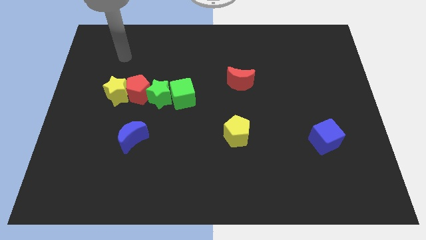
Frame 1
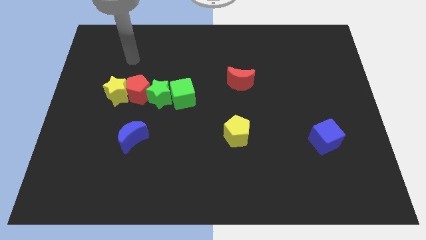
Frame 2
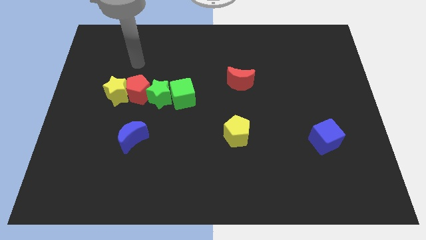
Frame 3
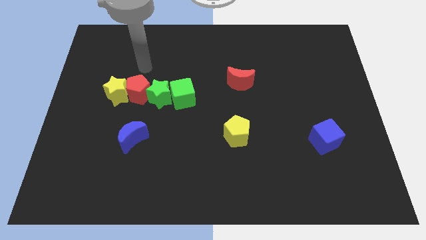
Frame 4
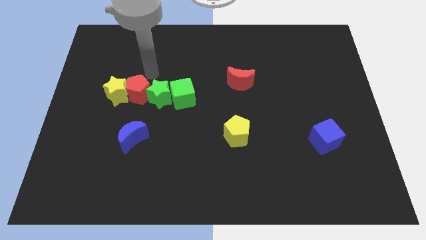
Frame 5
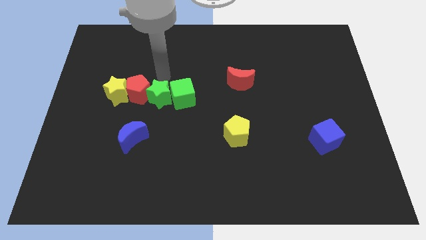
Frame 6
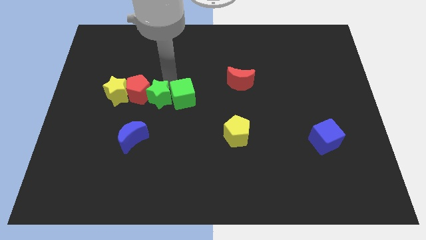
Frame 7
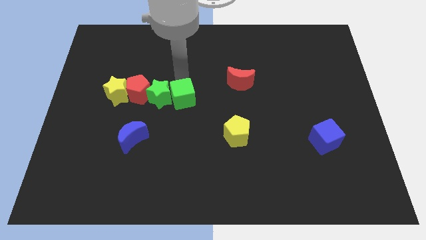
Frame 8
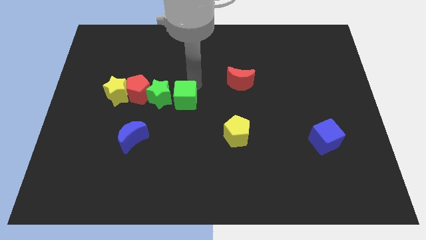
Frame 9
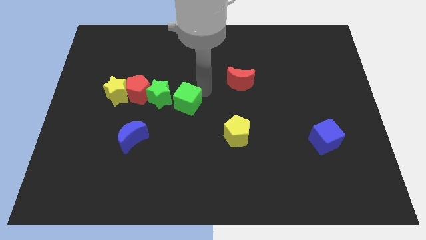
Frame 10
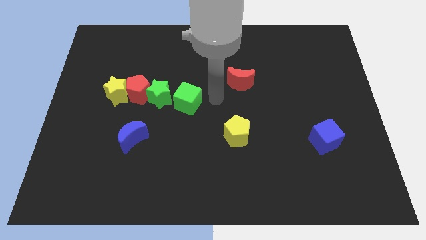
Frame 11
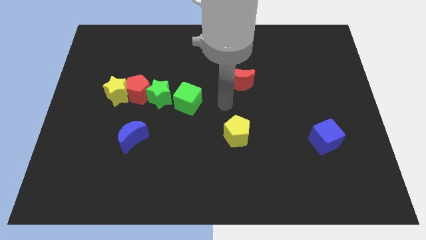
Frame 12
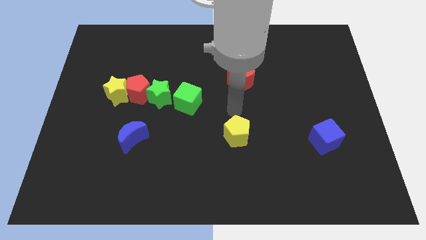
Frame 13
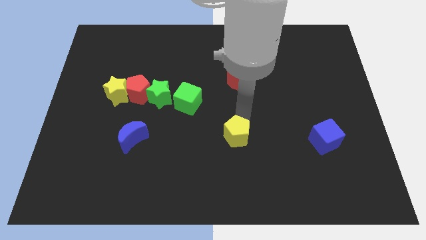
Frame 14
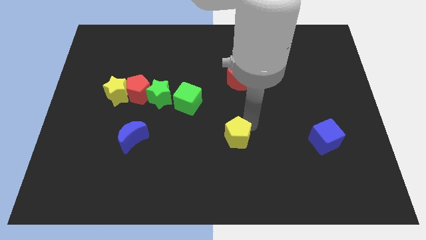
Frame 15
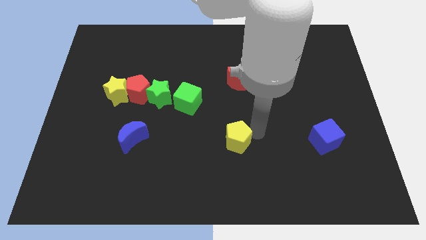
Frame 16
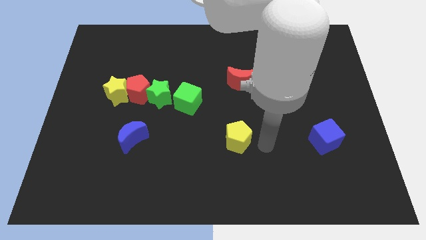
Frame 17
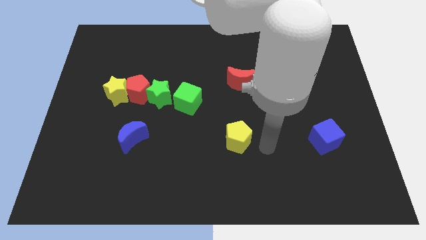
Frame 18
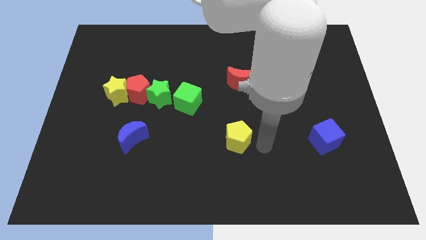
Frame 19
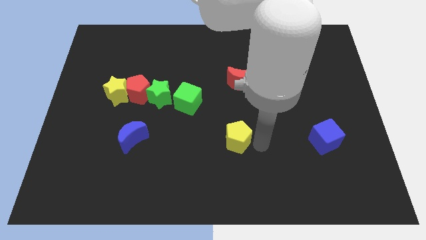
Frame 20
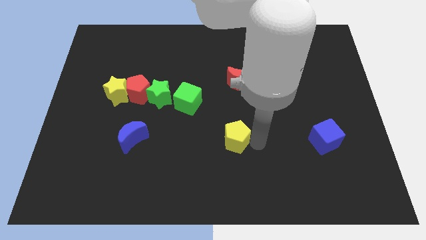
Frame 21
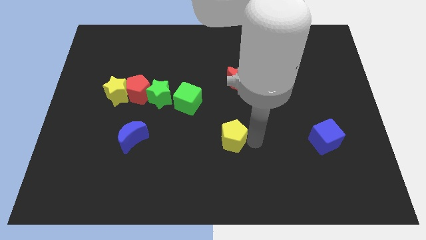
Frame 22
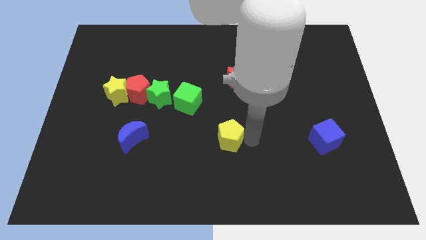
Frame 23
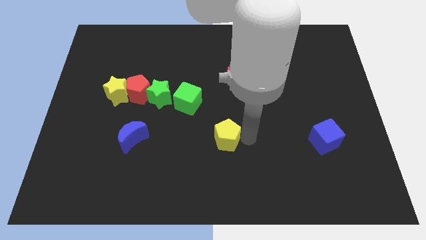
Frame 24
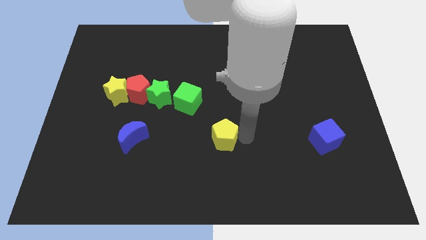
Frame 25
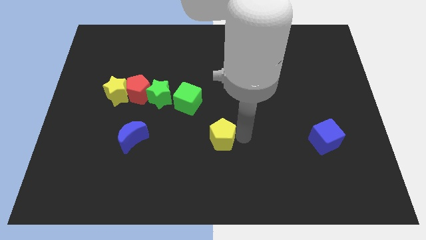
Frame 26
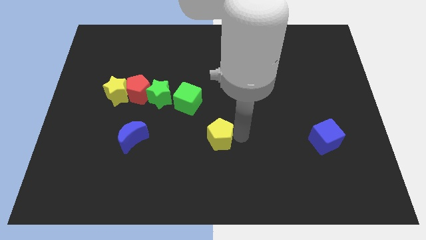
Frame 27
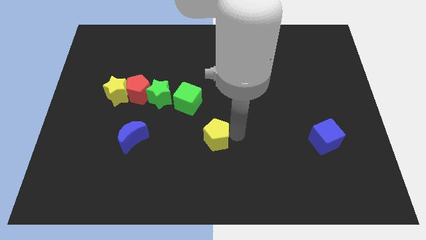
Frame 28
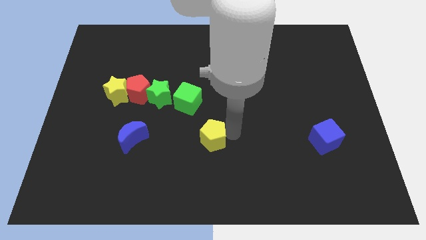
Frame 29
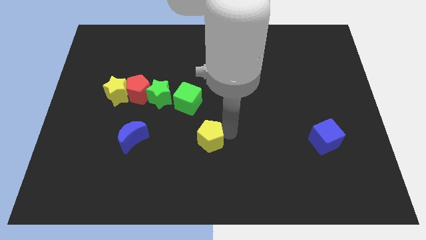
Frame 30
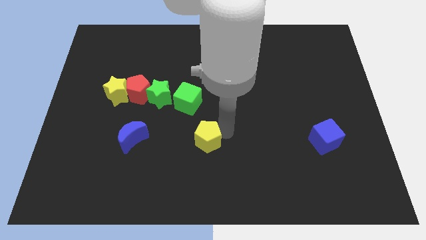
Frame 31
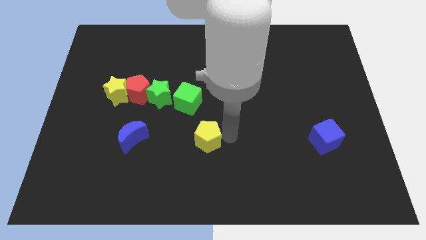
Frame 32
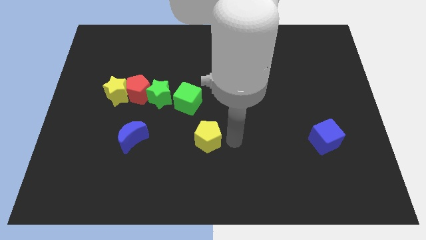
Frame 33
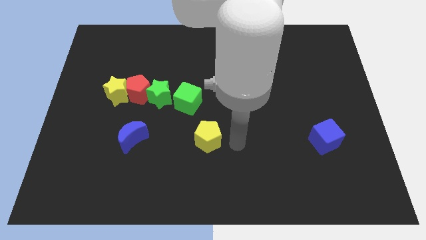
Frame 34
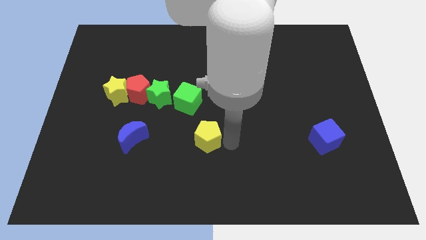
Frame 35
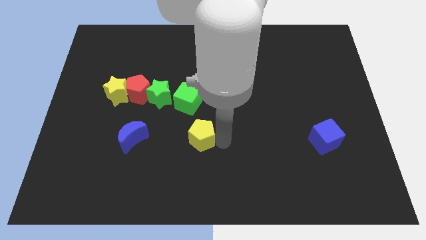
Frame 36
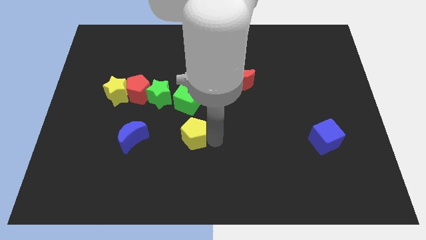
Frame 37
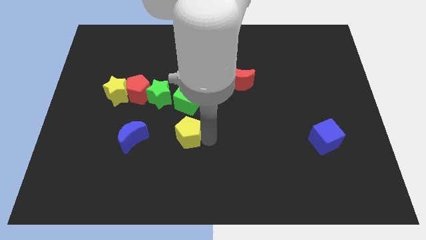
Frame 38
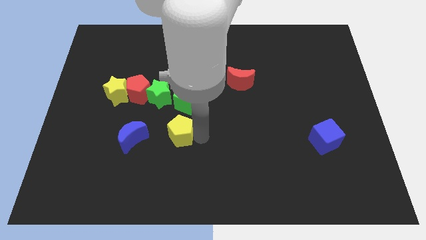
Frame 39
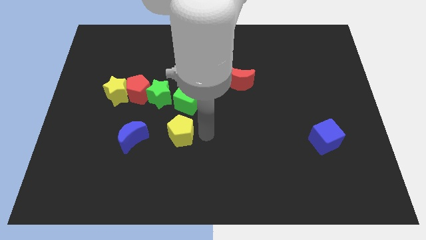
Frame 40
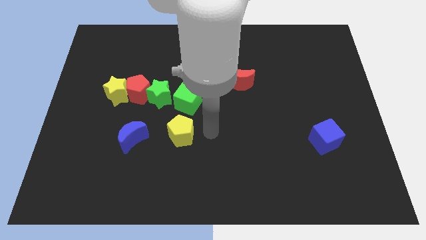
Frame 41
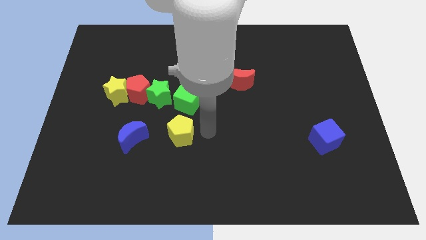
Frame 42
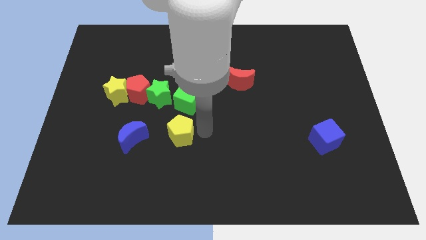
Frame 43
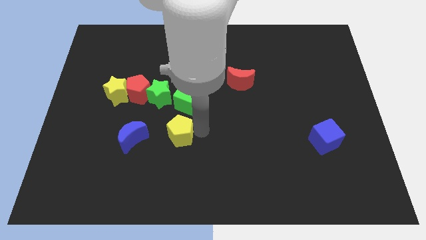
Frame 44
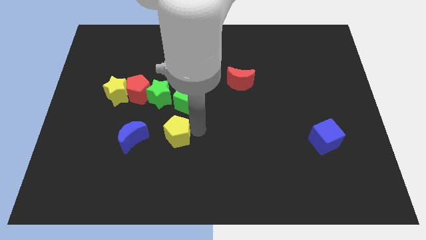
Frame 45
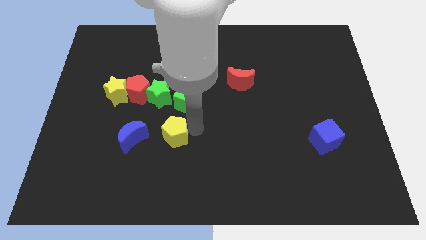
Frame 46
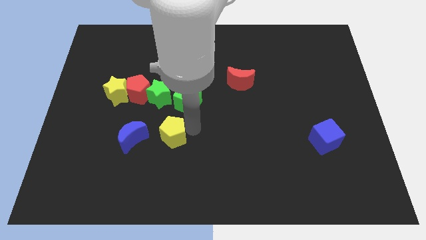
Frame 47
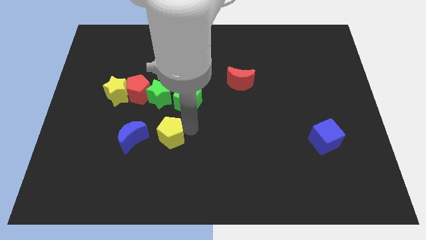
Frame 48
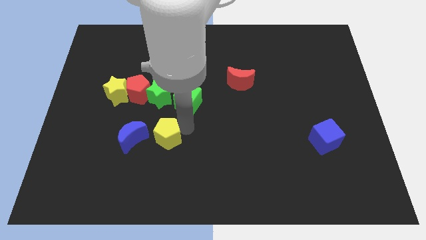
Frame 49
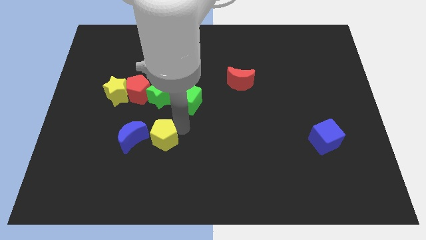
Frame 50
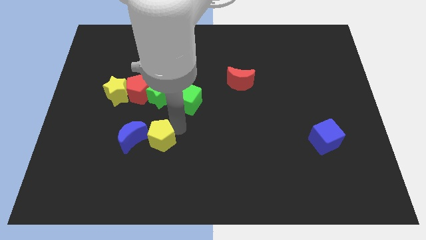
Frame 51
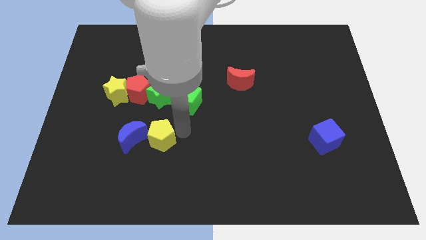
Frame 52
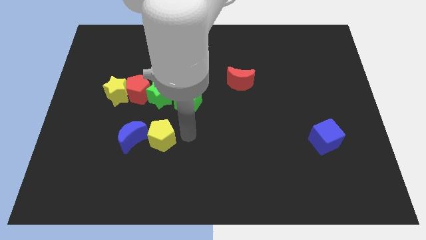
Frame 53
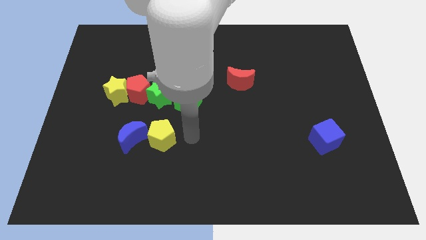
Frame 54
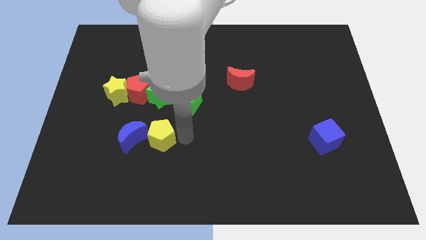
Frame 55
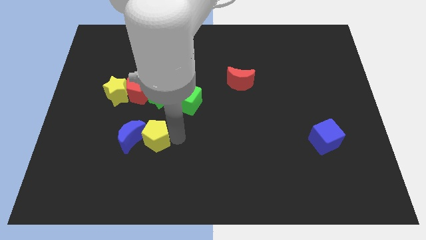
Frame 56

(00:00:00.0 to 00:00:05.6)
slide the yellow pentagon towards the blue moon

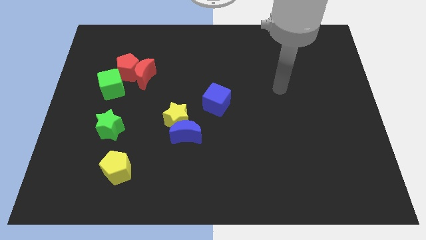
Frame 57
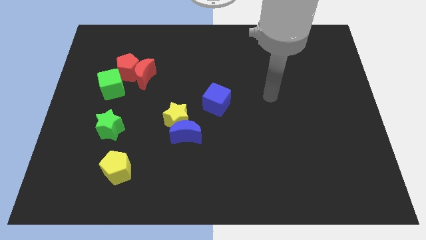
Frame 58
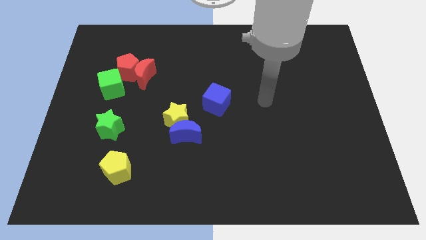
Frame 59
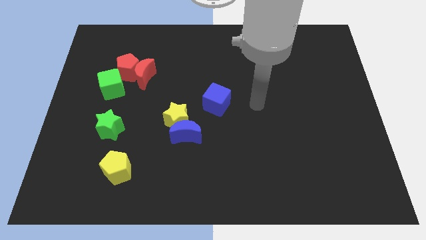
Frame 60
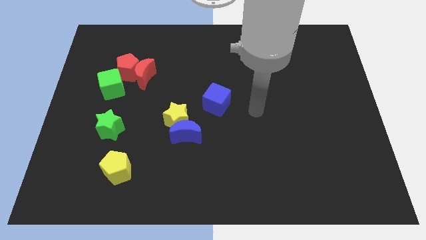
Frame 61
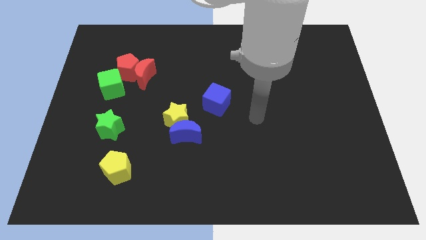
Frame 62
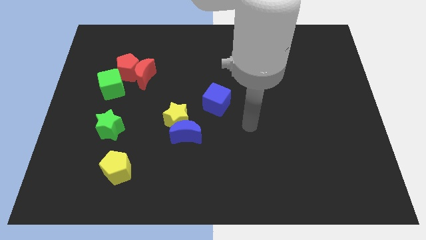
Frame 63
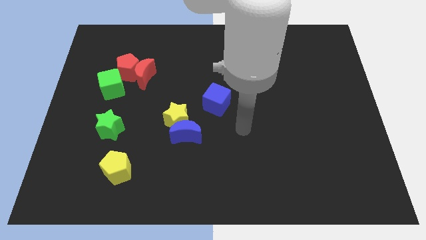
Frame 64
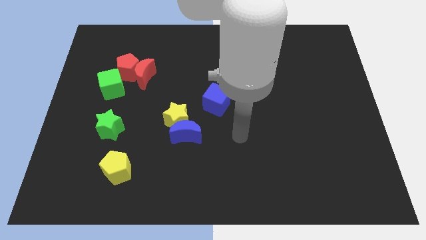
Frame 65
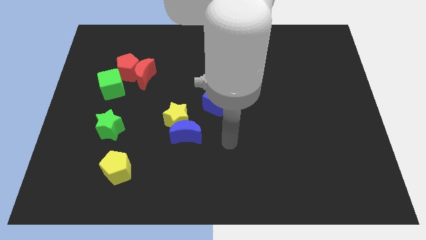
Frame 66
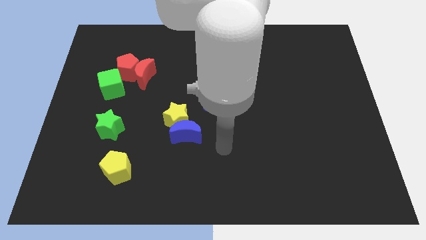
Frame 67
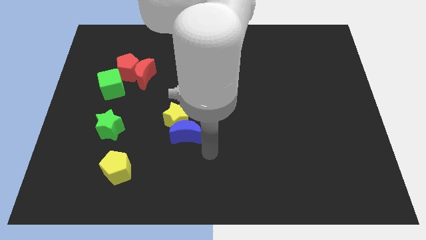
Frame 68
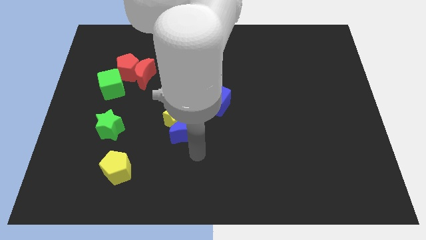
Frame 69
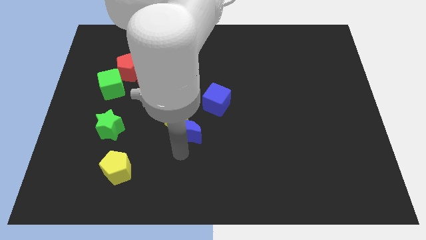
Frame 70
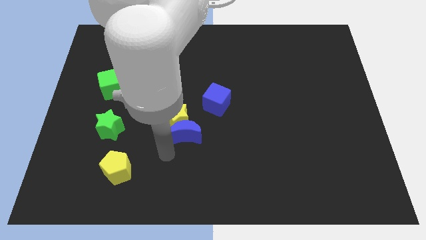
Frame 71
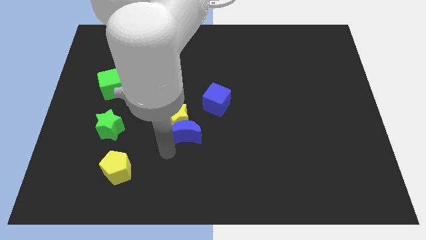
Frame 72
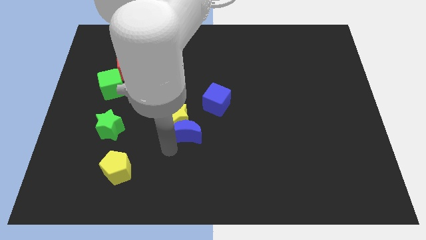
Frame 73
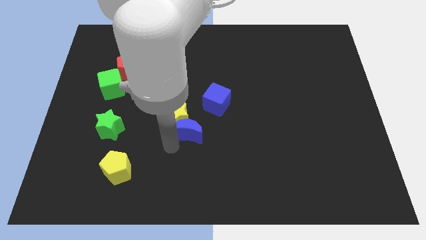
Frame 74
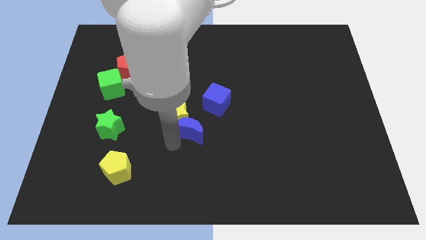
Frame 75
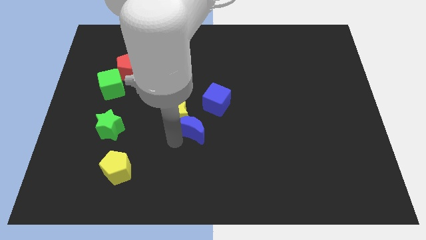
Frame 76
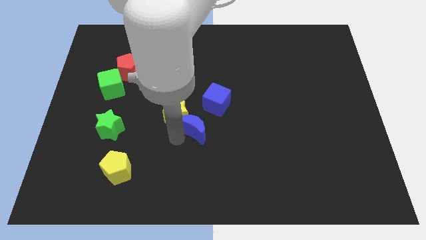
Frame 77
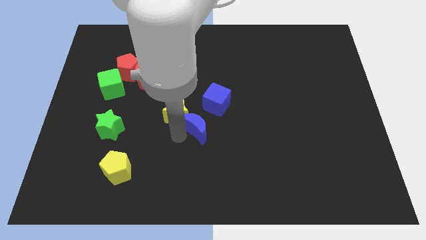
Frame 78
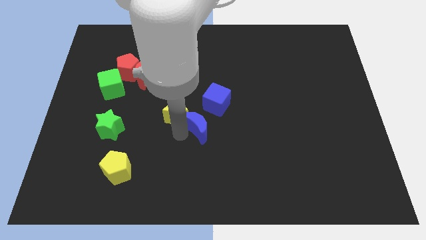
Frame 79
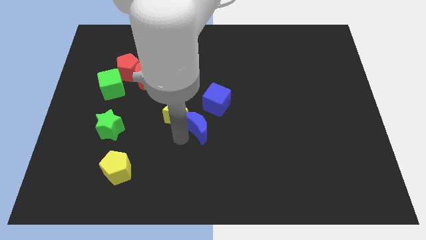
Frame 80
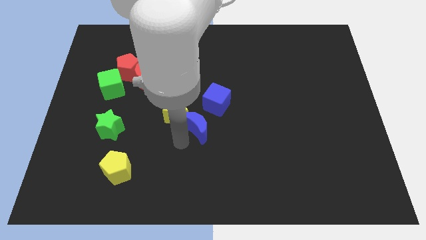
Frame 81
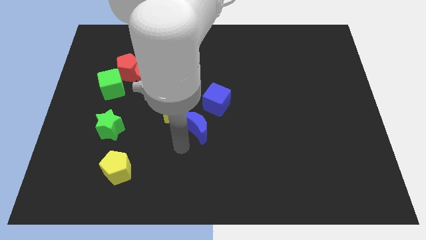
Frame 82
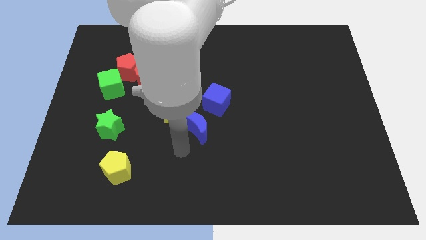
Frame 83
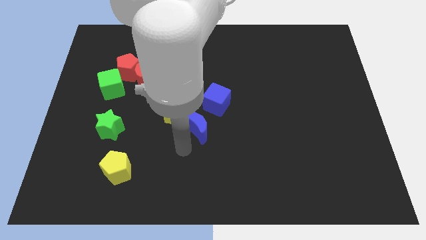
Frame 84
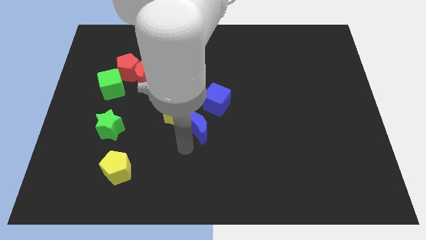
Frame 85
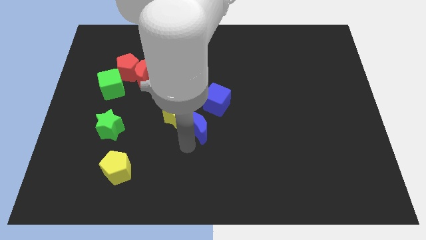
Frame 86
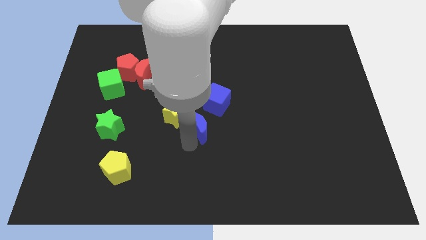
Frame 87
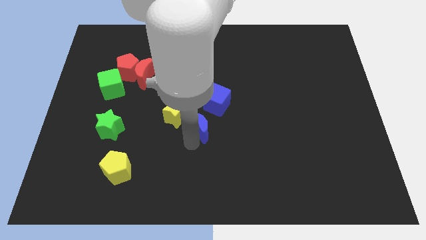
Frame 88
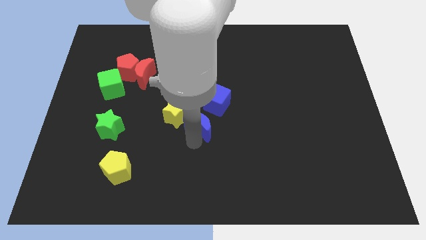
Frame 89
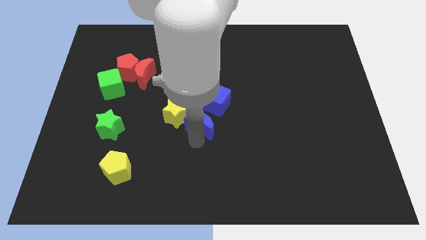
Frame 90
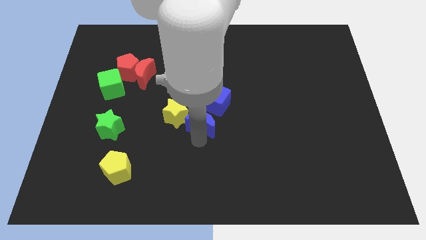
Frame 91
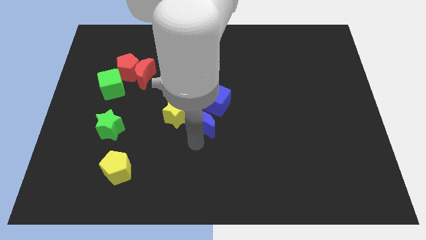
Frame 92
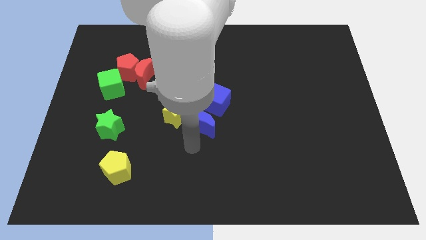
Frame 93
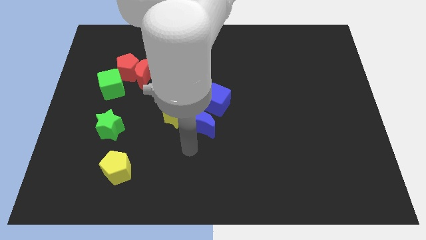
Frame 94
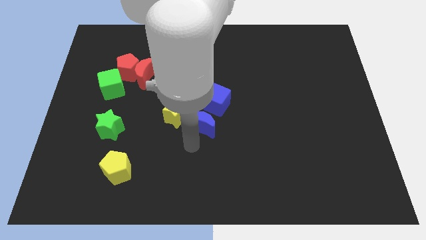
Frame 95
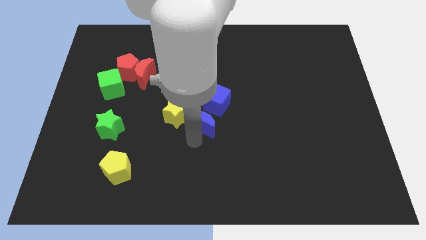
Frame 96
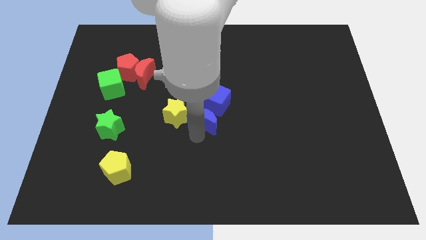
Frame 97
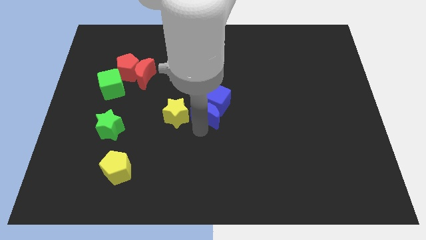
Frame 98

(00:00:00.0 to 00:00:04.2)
push the blue moon to the blue cube
